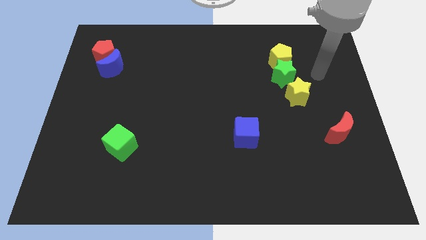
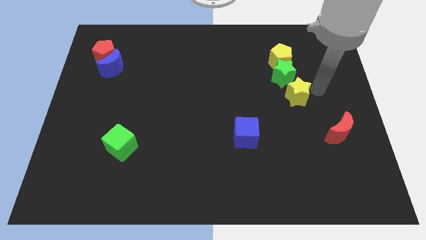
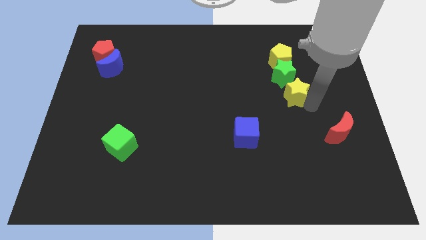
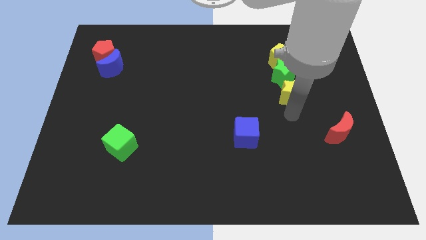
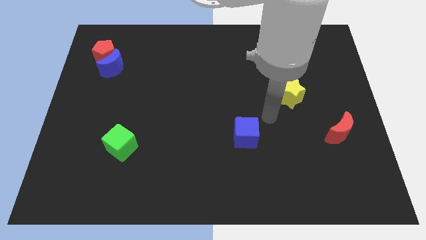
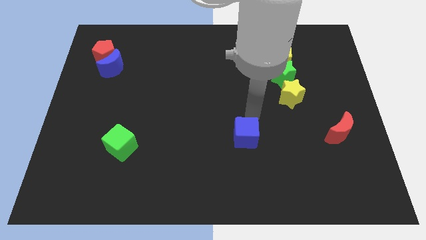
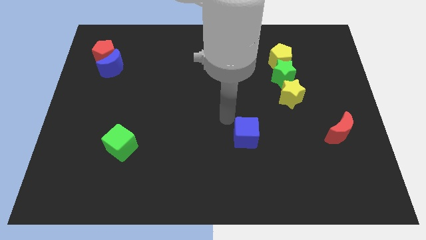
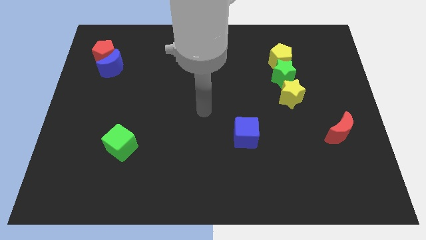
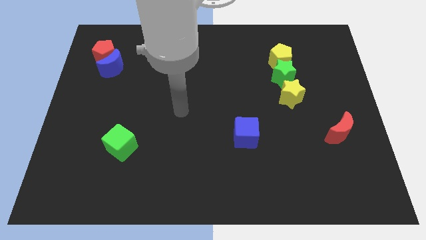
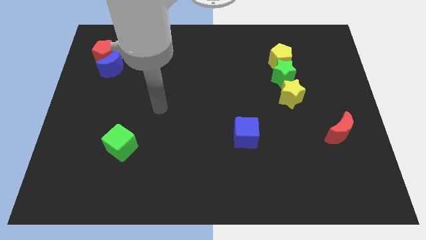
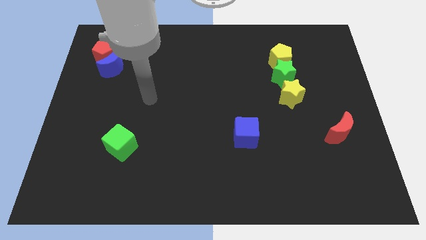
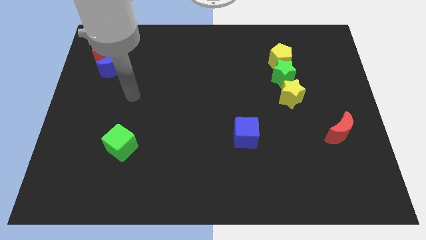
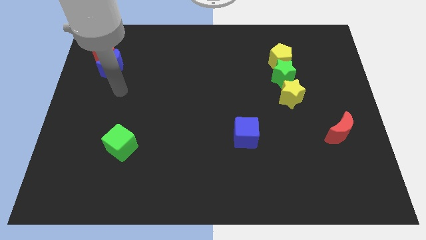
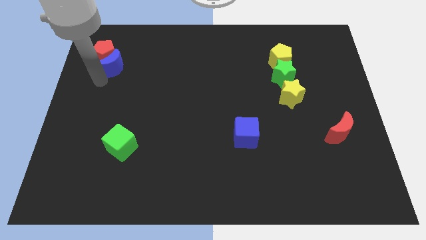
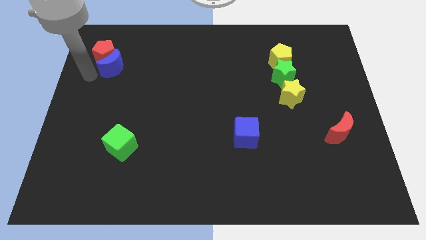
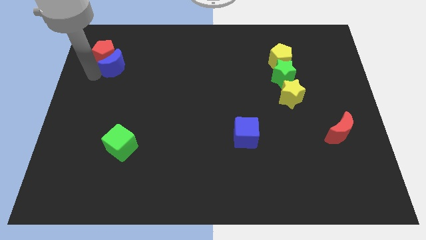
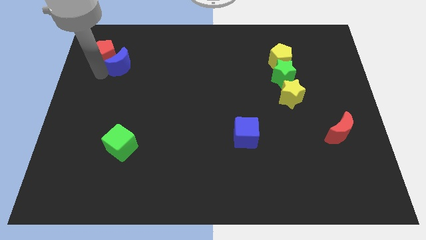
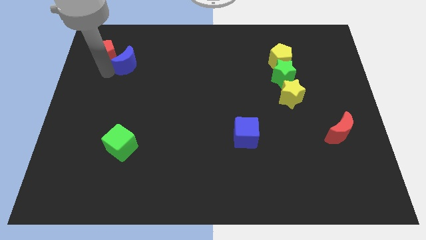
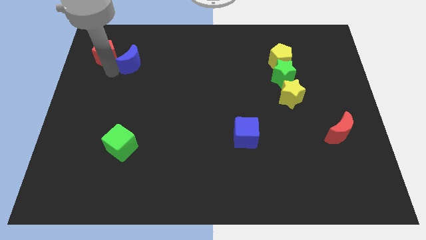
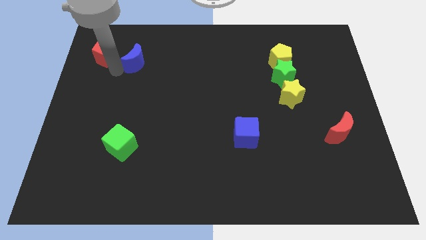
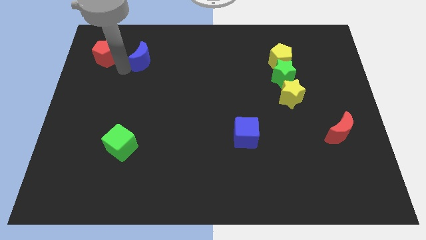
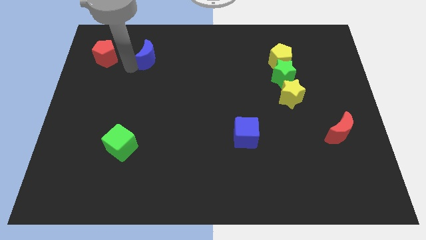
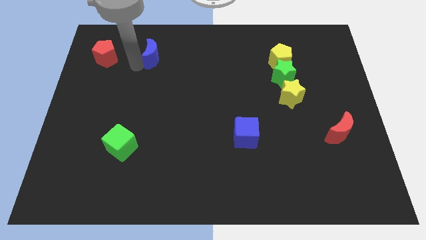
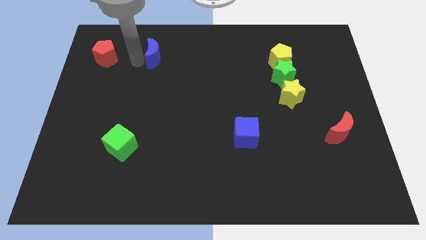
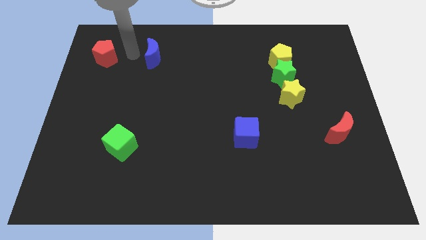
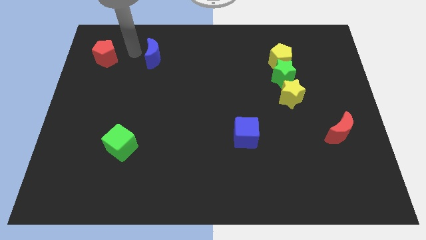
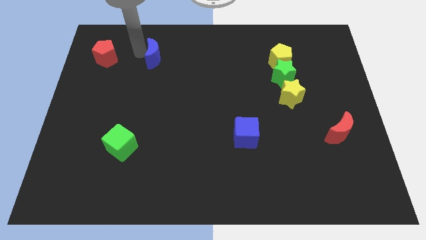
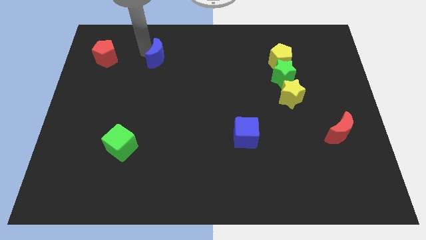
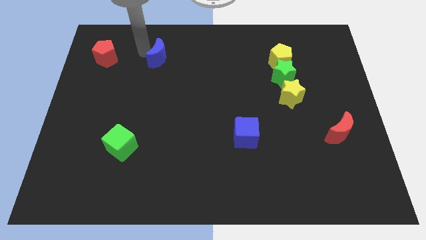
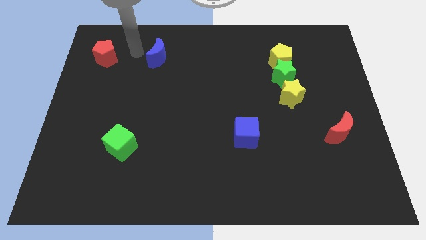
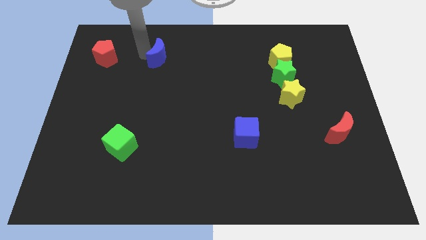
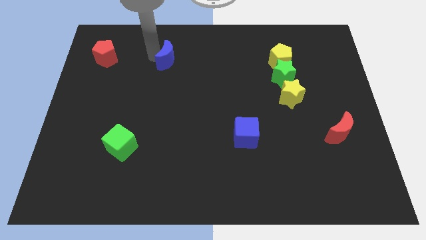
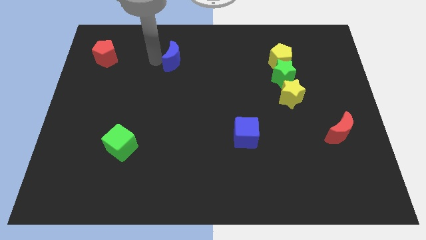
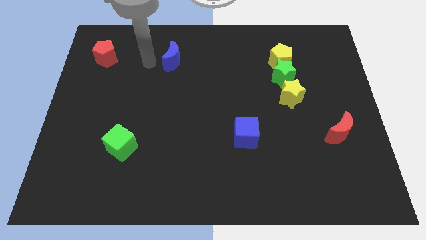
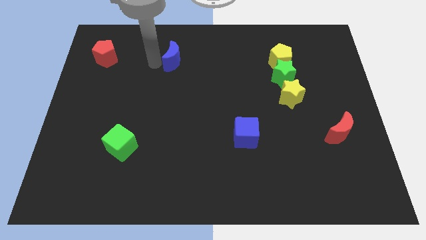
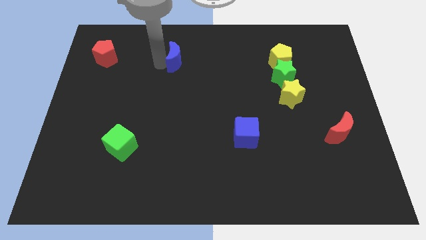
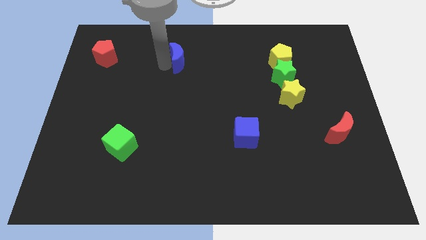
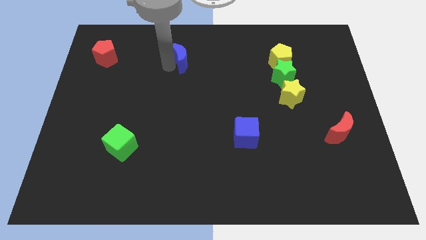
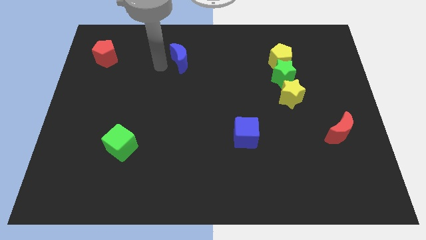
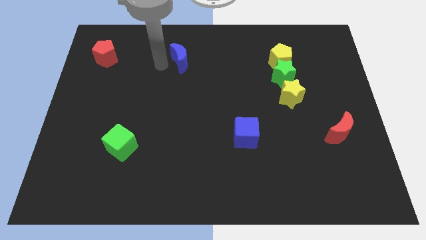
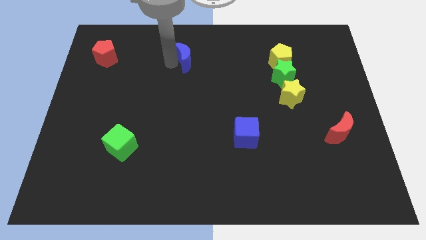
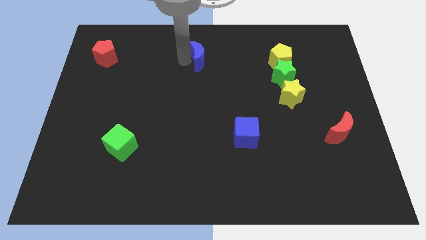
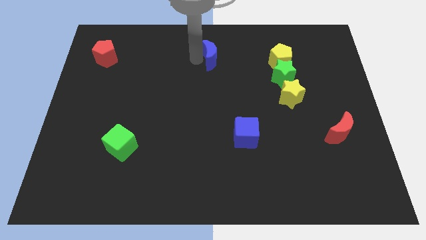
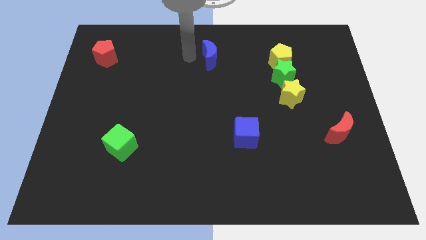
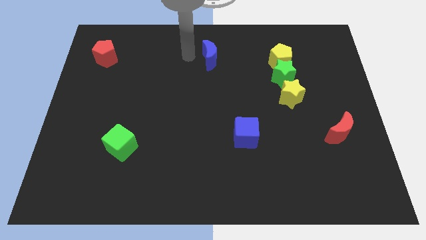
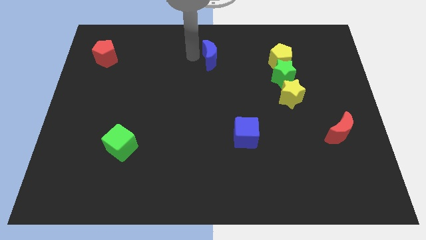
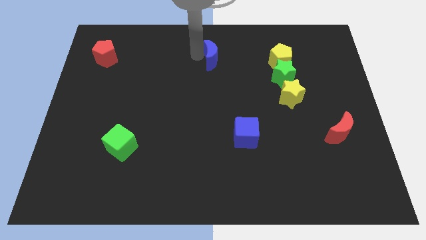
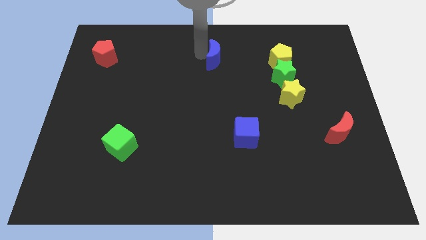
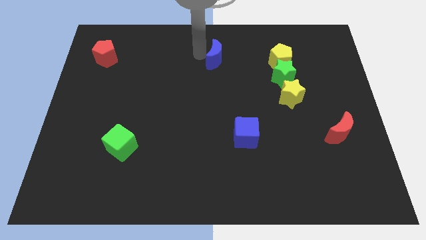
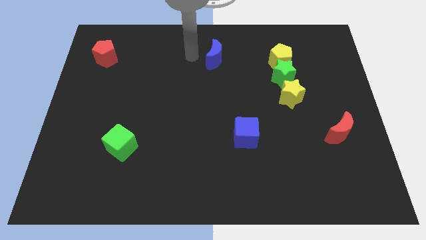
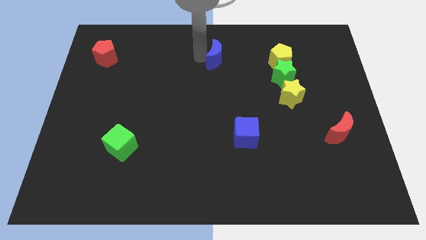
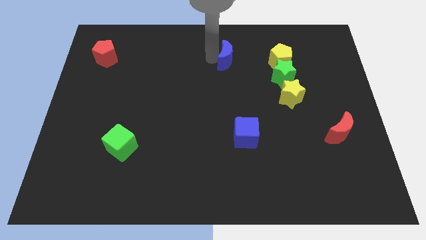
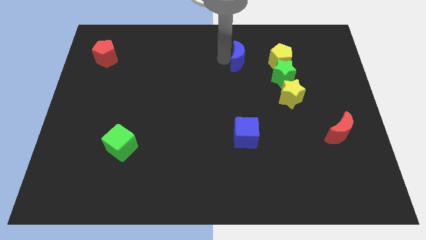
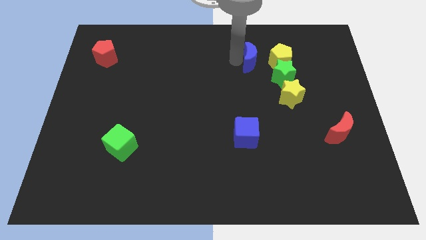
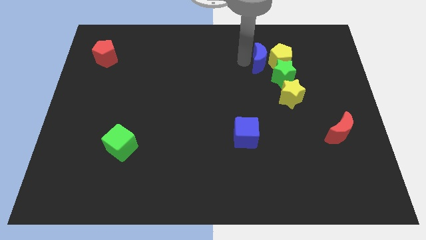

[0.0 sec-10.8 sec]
move the blue moon next to the yellow pentagon

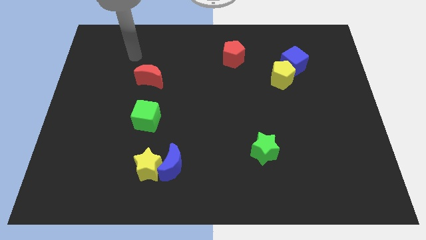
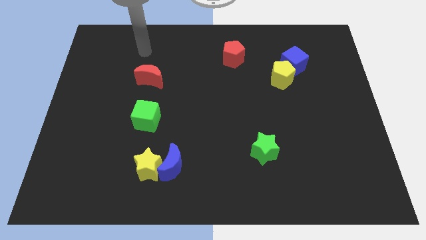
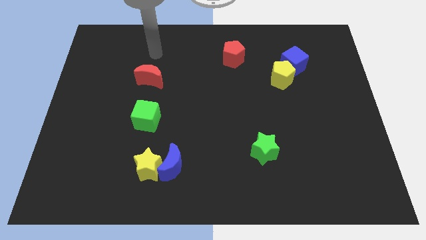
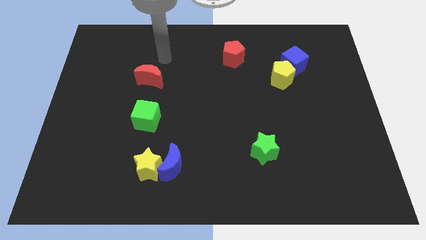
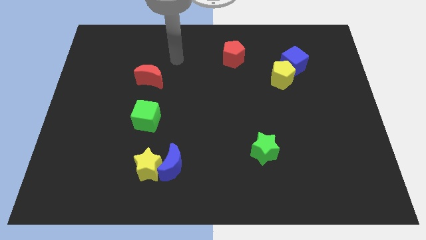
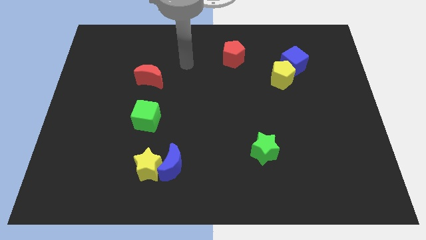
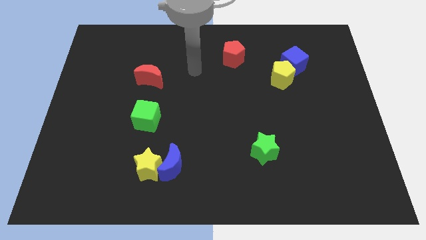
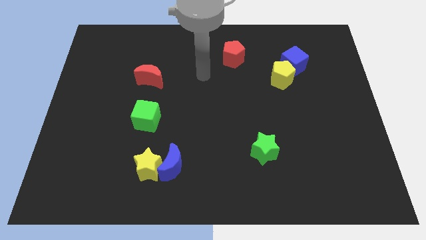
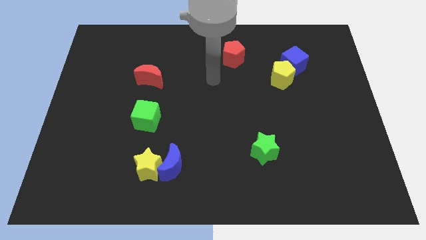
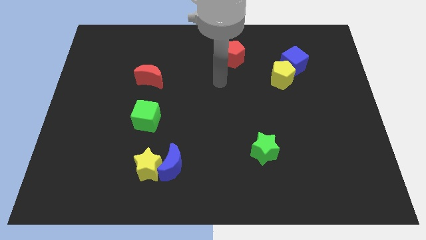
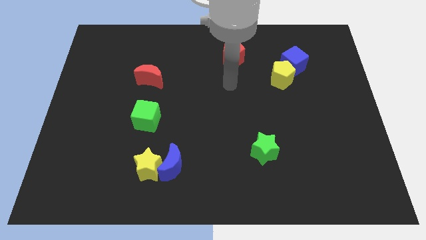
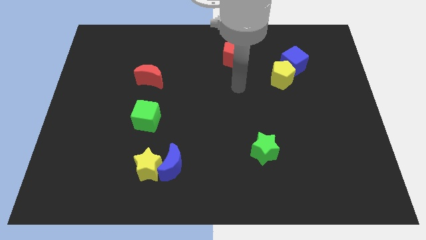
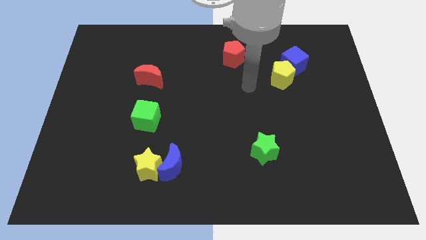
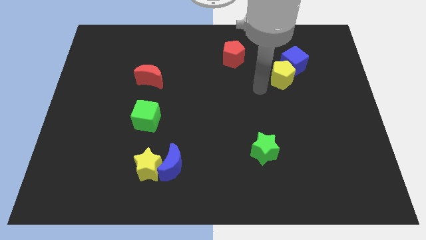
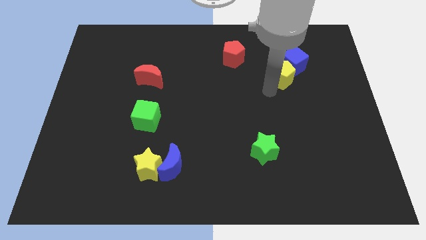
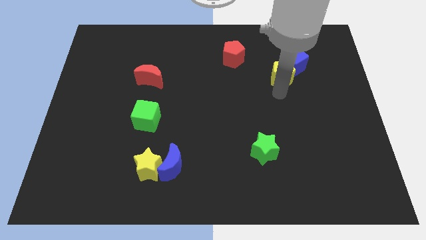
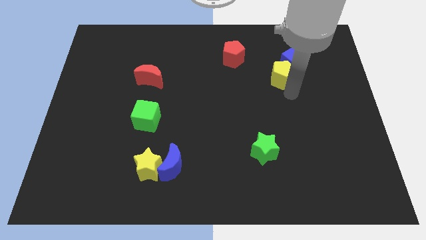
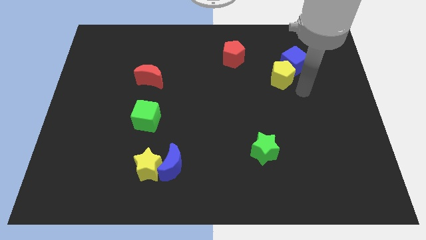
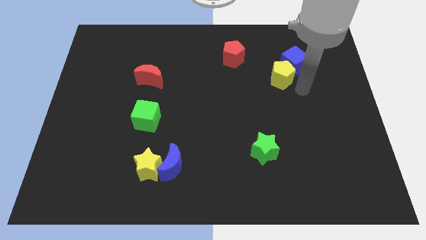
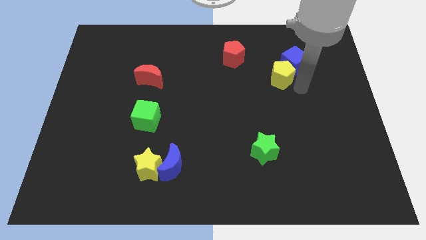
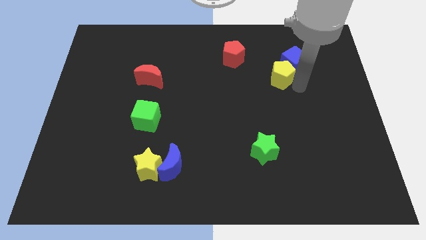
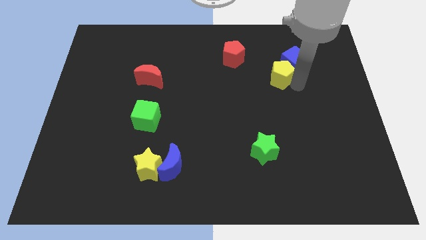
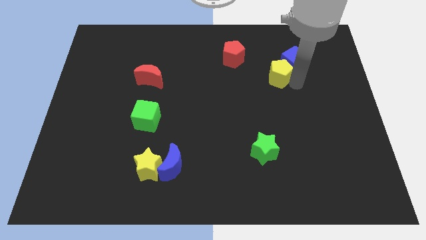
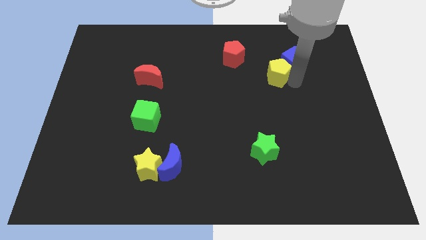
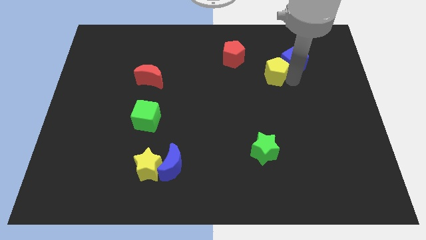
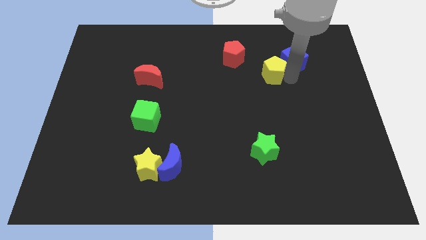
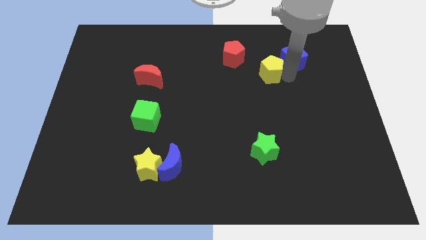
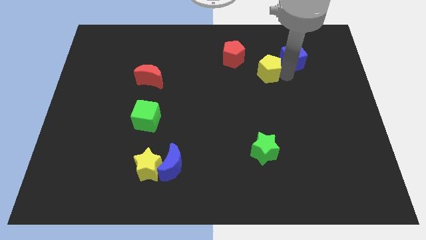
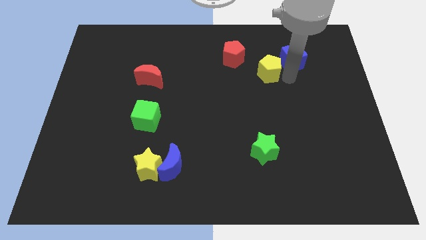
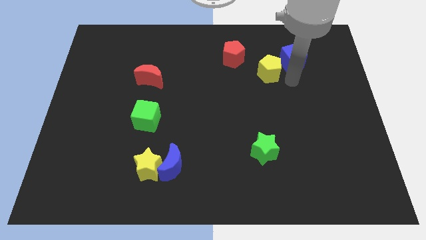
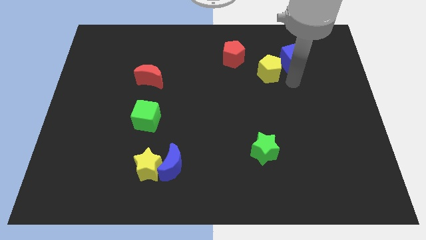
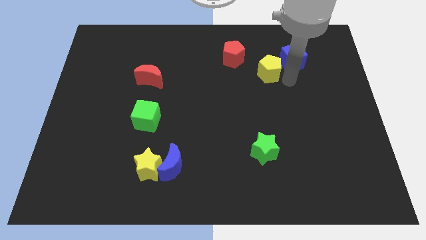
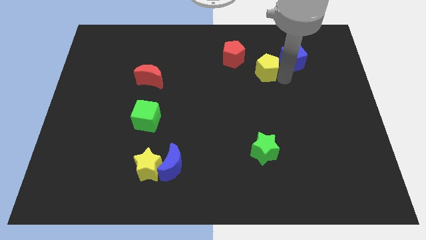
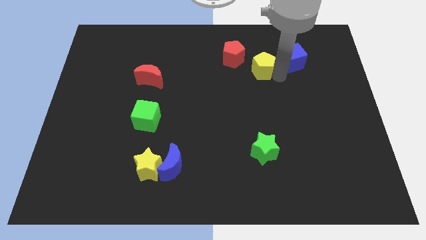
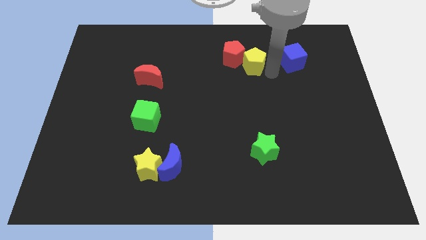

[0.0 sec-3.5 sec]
put the yellow pentagon towards the red pentagon
